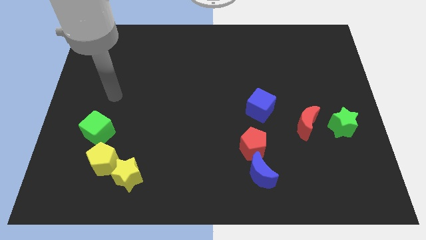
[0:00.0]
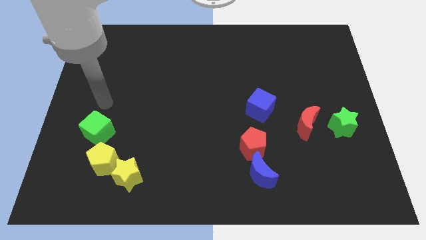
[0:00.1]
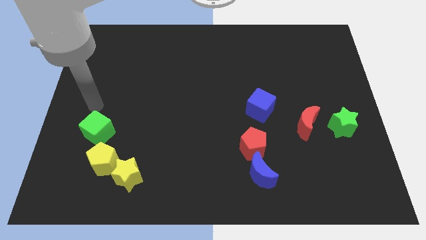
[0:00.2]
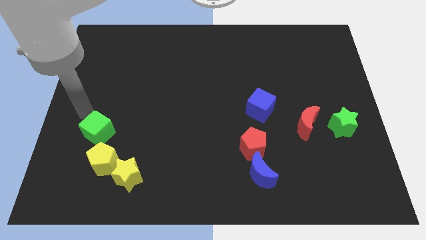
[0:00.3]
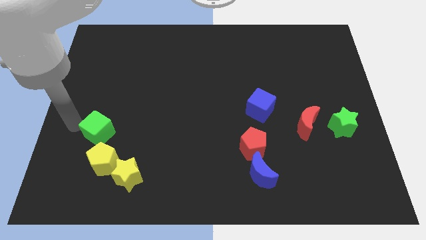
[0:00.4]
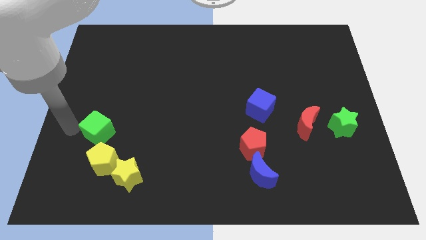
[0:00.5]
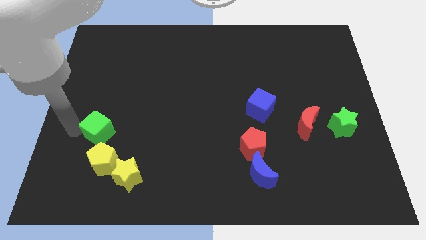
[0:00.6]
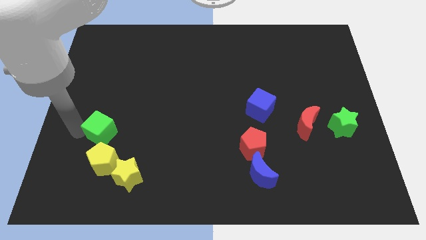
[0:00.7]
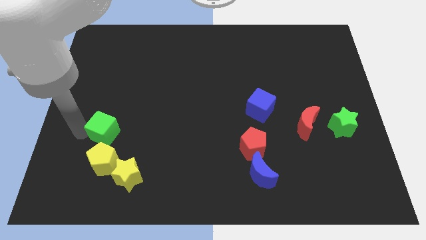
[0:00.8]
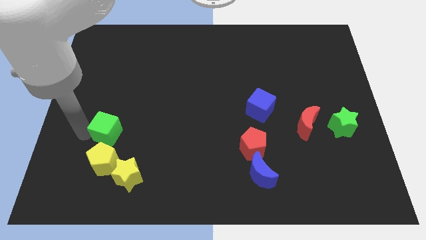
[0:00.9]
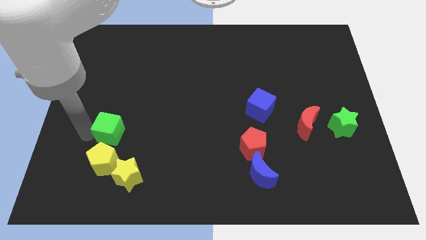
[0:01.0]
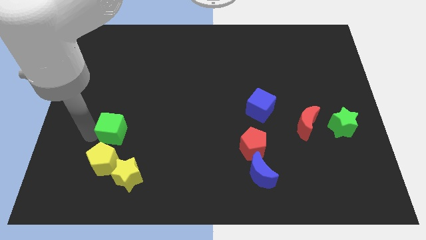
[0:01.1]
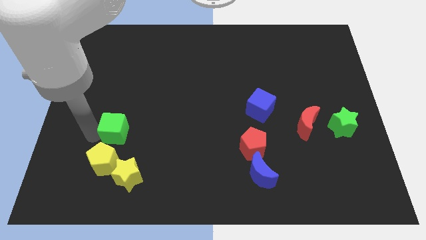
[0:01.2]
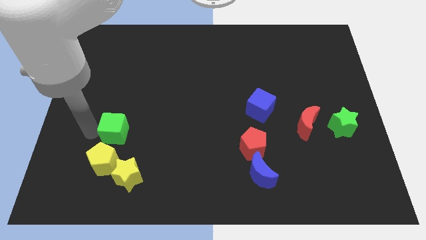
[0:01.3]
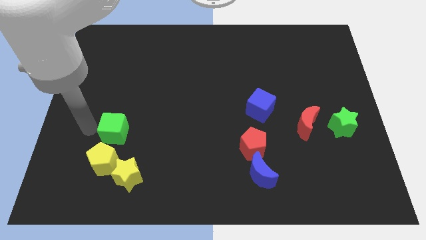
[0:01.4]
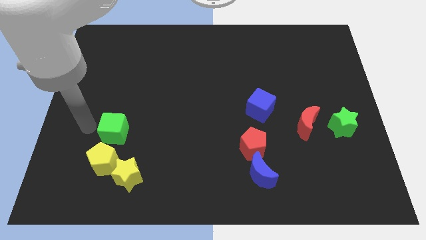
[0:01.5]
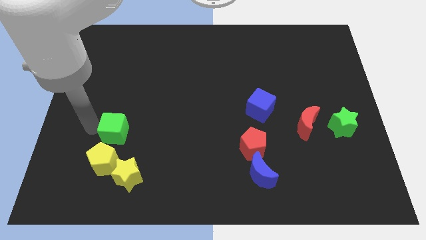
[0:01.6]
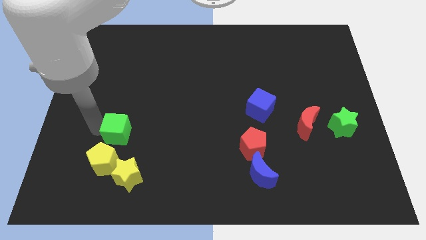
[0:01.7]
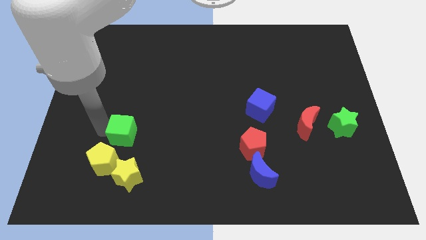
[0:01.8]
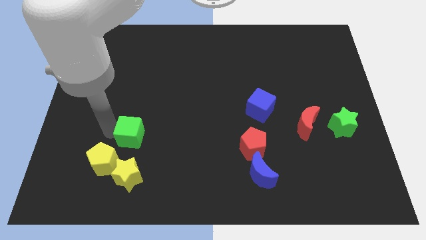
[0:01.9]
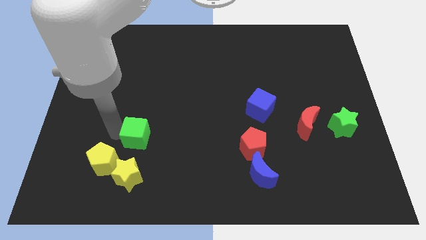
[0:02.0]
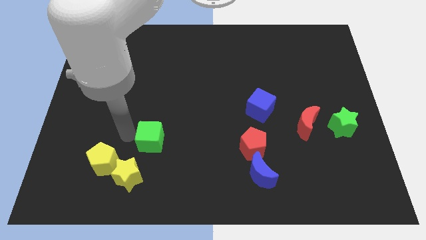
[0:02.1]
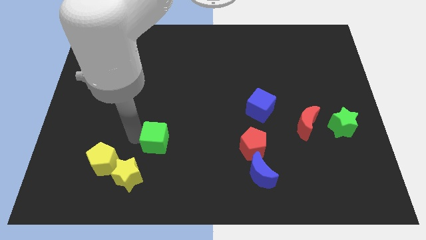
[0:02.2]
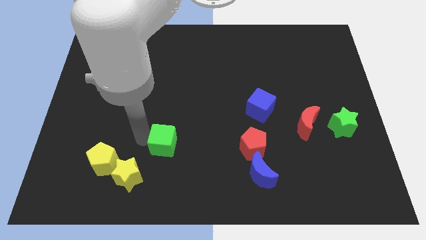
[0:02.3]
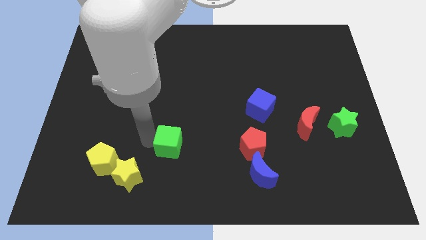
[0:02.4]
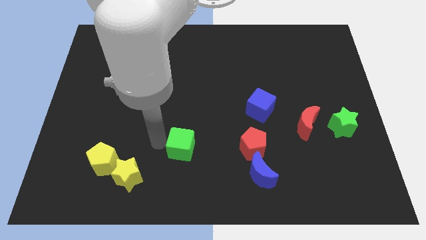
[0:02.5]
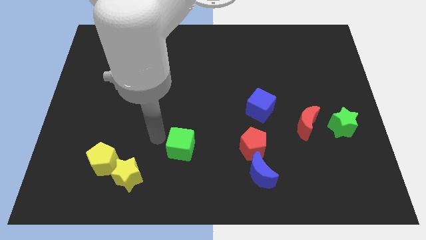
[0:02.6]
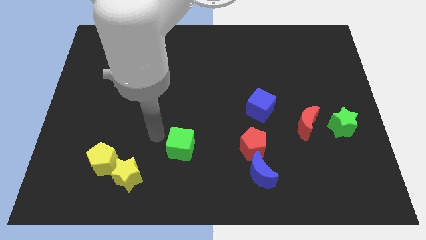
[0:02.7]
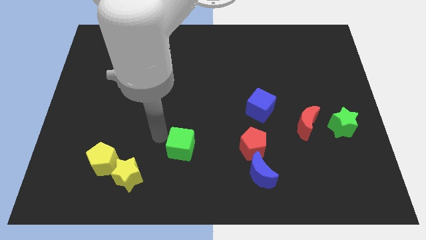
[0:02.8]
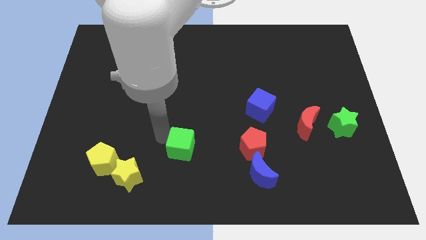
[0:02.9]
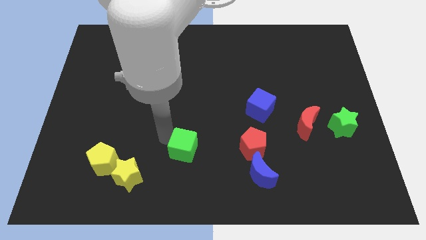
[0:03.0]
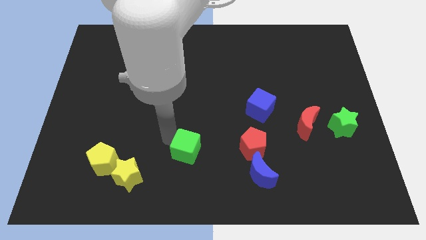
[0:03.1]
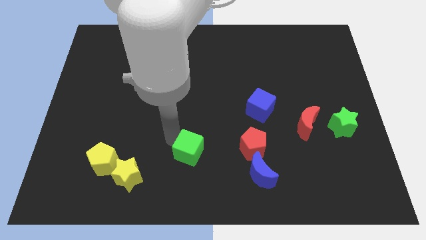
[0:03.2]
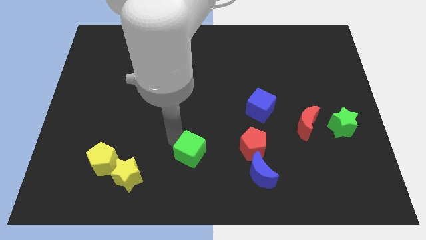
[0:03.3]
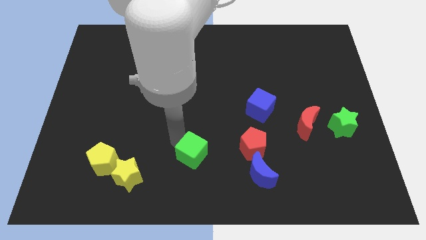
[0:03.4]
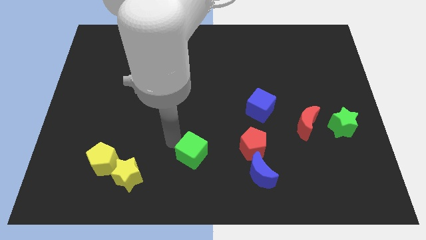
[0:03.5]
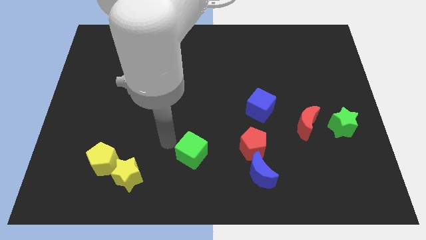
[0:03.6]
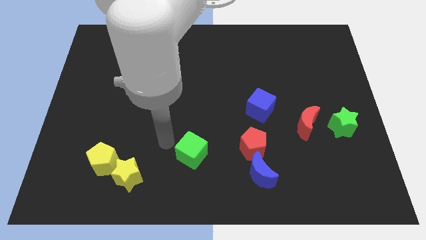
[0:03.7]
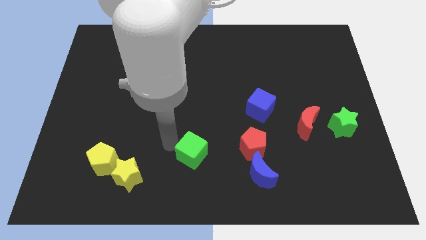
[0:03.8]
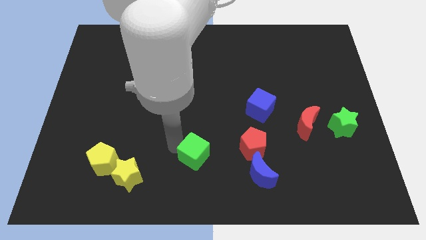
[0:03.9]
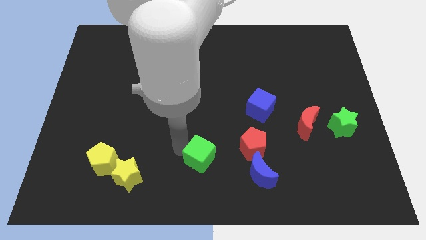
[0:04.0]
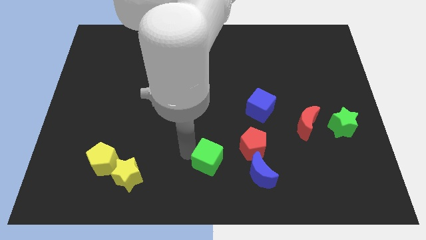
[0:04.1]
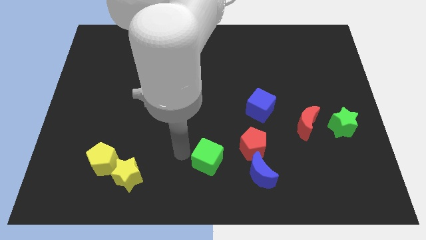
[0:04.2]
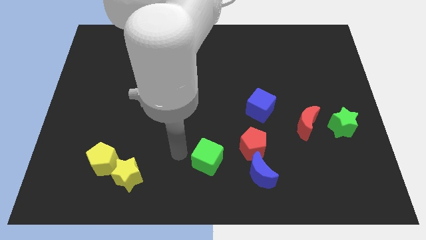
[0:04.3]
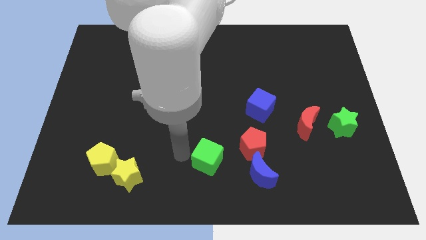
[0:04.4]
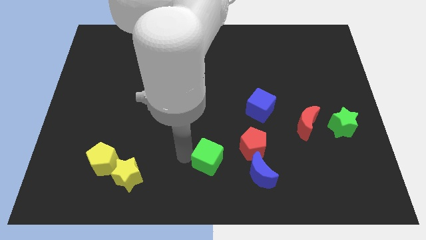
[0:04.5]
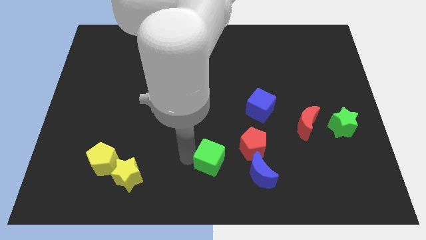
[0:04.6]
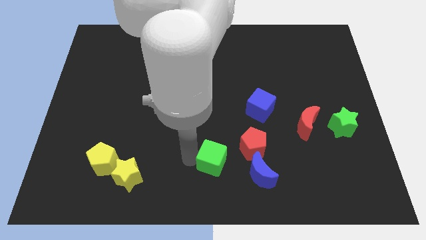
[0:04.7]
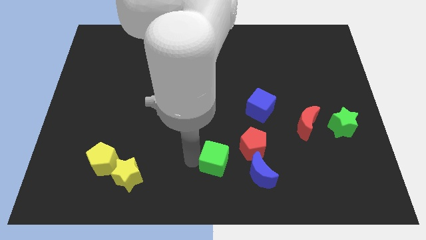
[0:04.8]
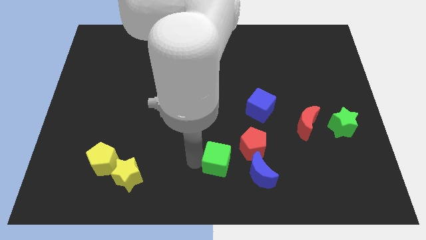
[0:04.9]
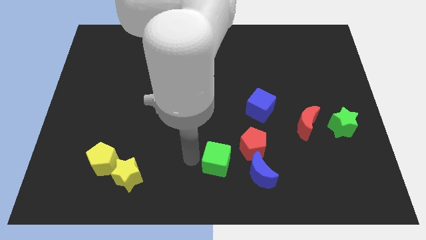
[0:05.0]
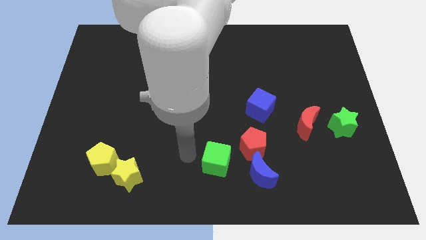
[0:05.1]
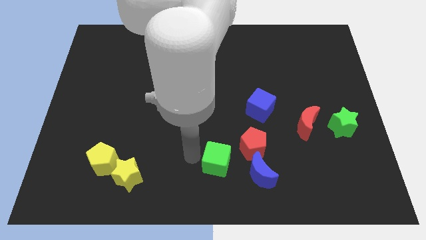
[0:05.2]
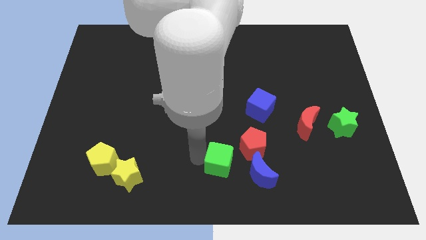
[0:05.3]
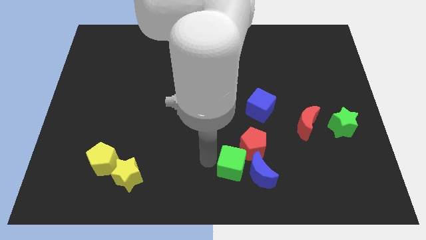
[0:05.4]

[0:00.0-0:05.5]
push the green cube to the blue moon

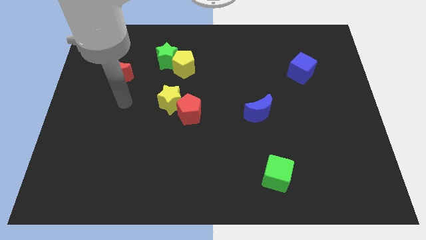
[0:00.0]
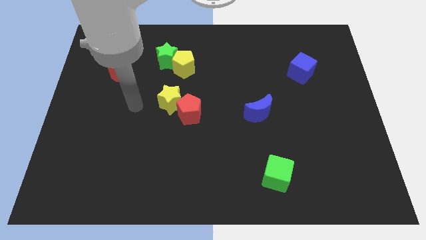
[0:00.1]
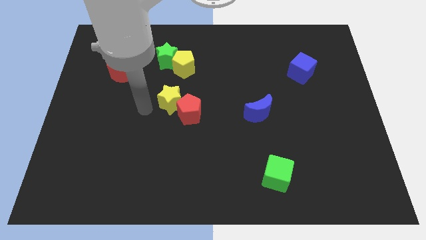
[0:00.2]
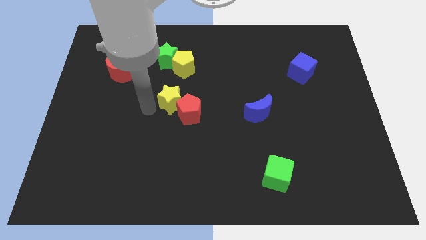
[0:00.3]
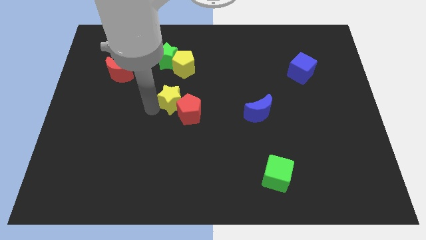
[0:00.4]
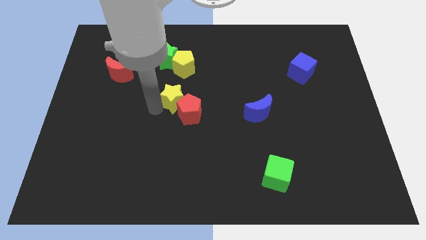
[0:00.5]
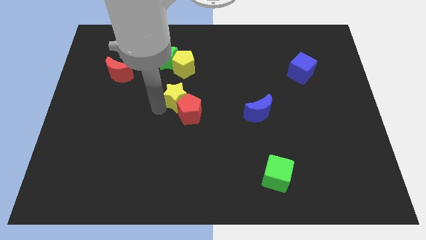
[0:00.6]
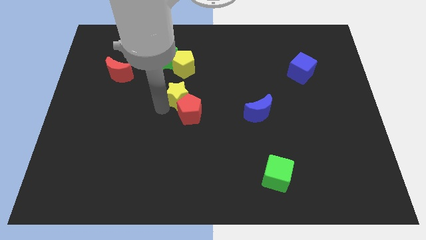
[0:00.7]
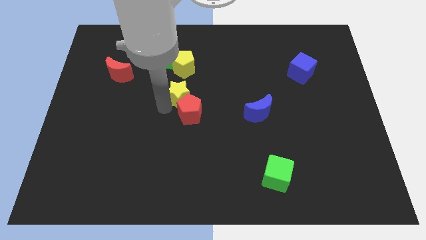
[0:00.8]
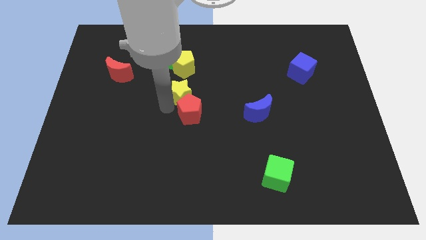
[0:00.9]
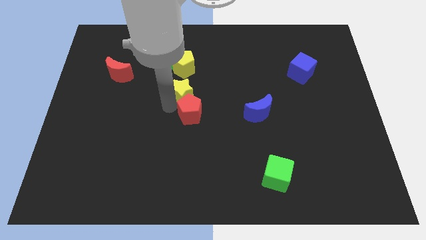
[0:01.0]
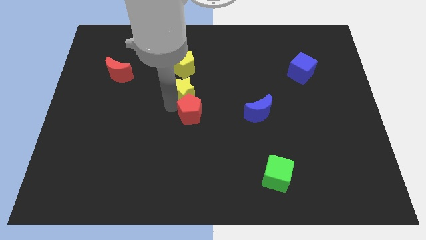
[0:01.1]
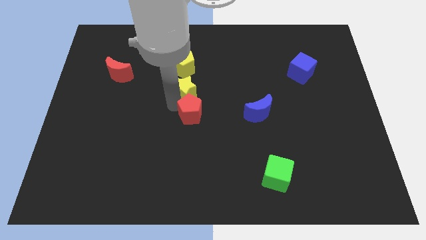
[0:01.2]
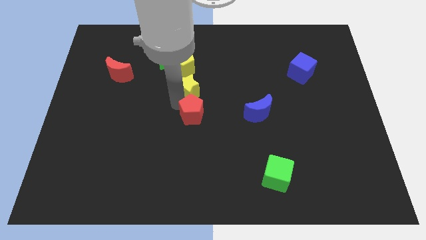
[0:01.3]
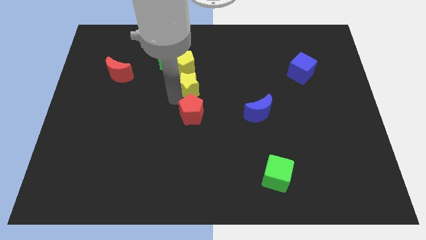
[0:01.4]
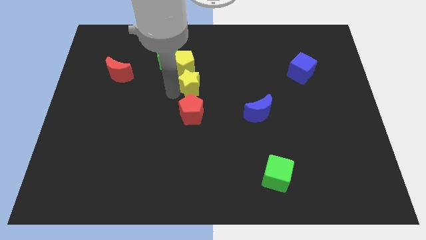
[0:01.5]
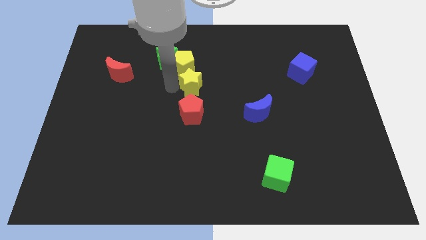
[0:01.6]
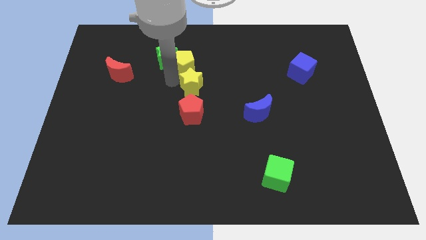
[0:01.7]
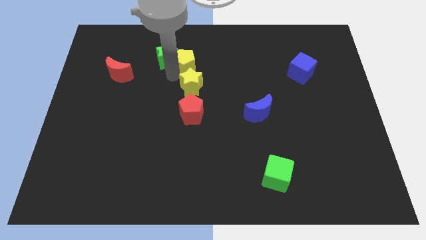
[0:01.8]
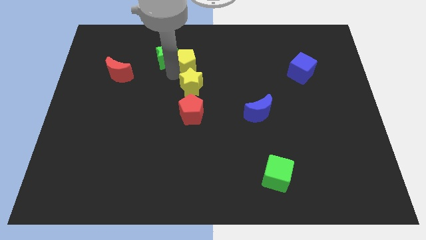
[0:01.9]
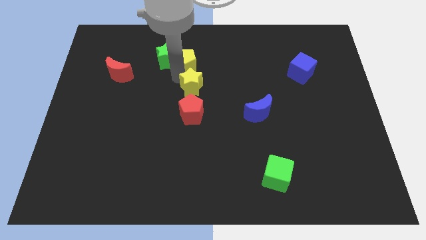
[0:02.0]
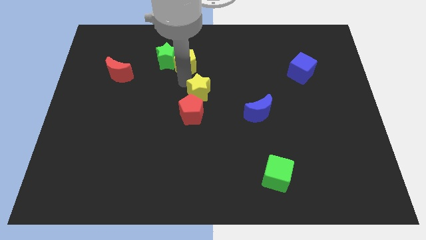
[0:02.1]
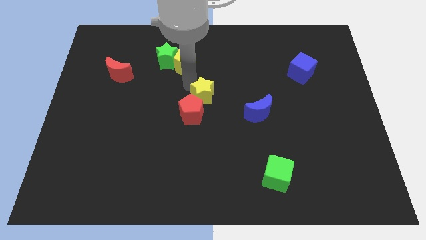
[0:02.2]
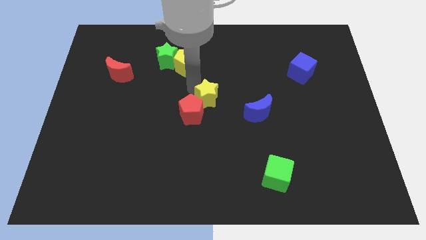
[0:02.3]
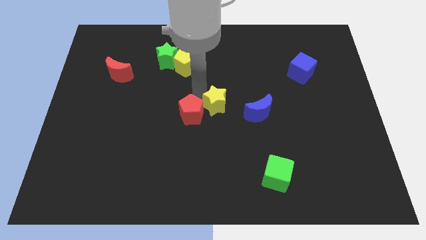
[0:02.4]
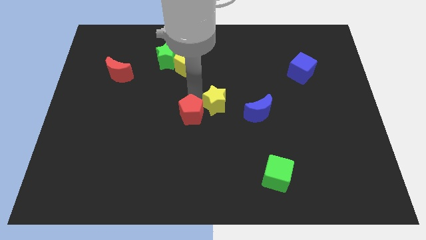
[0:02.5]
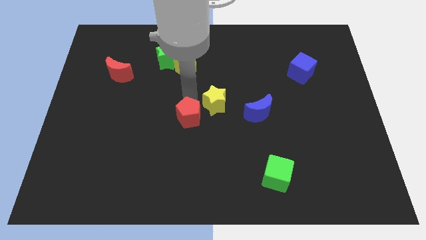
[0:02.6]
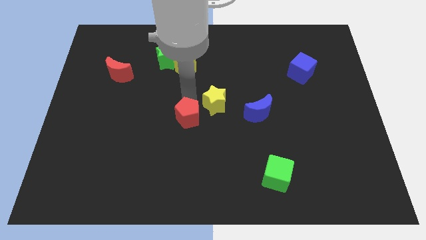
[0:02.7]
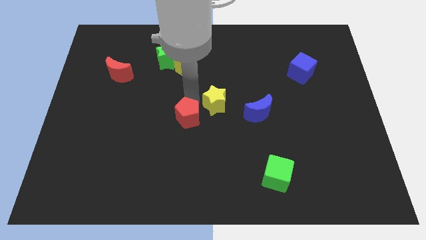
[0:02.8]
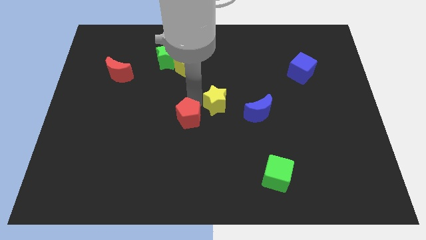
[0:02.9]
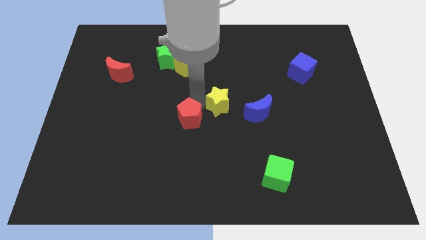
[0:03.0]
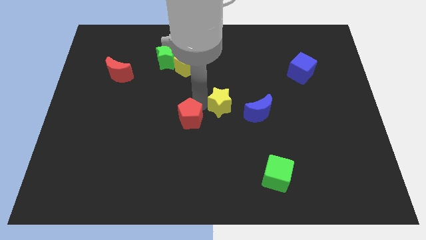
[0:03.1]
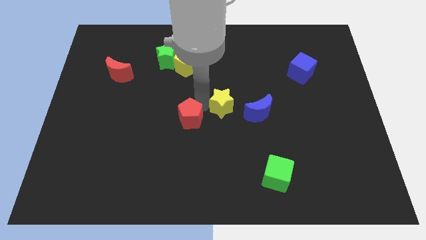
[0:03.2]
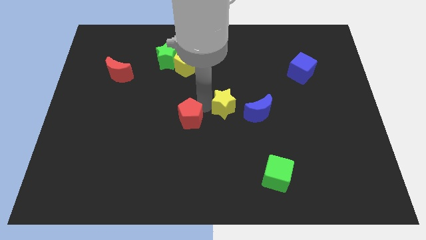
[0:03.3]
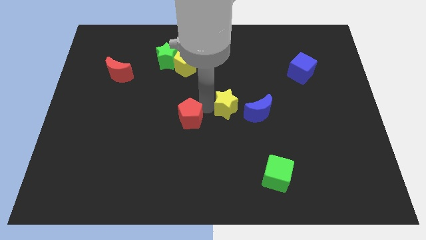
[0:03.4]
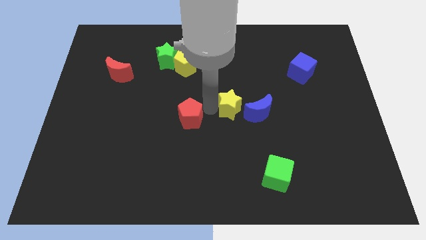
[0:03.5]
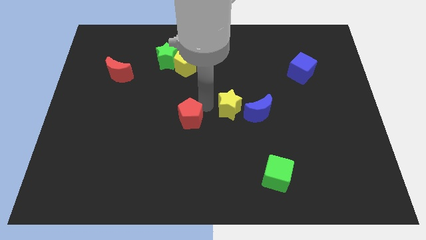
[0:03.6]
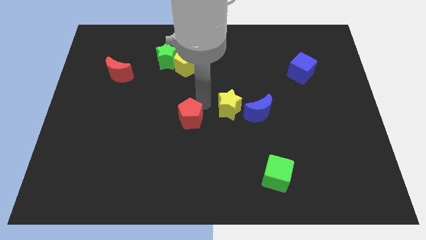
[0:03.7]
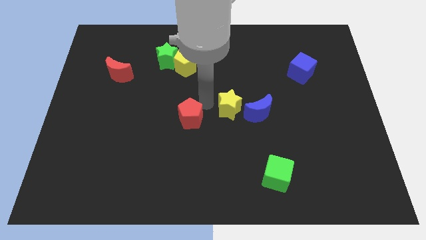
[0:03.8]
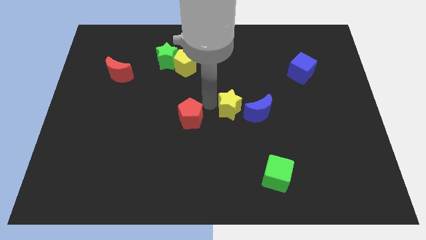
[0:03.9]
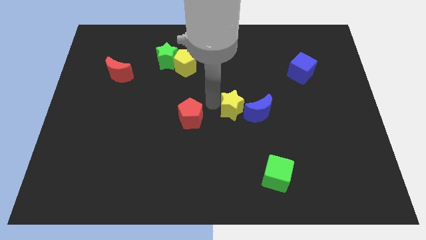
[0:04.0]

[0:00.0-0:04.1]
move the yellow star next to the blue moon
